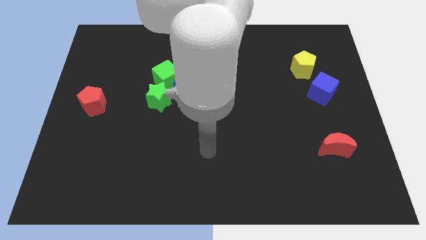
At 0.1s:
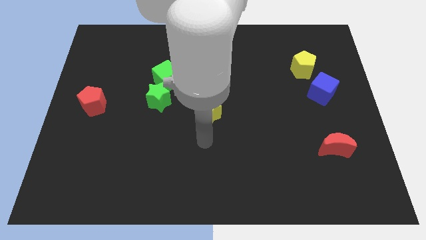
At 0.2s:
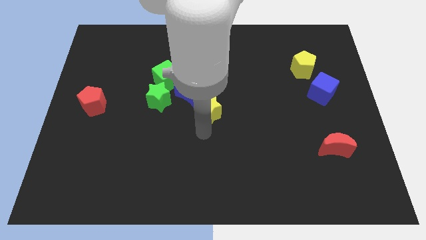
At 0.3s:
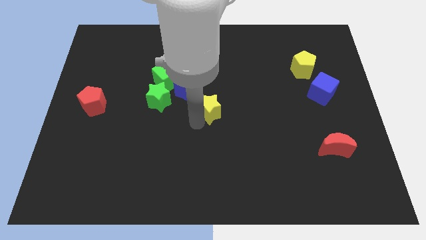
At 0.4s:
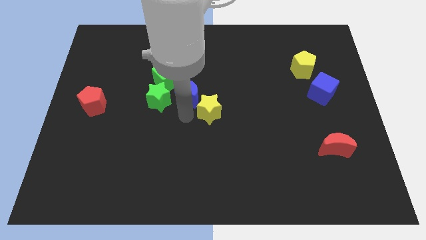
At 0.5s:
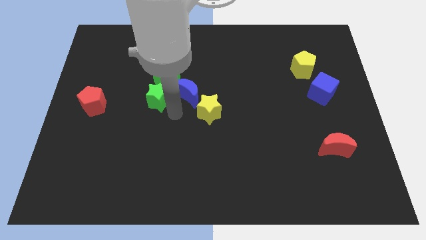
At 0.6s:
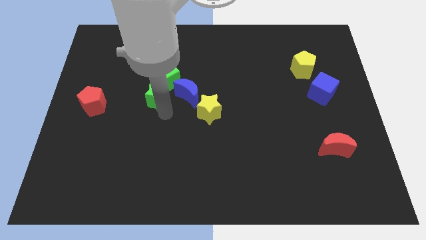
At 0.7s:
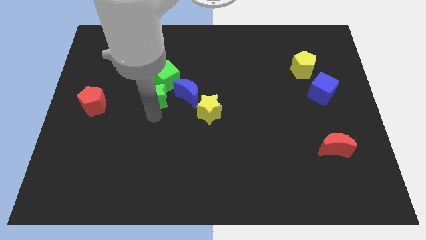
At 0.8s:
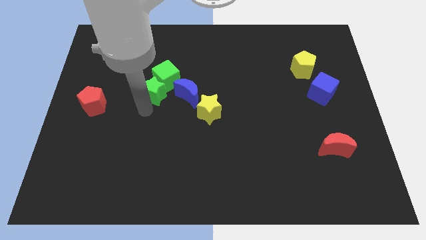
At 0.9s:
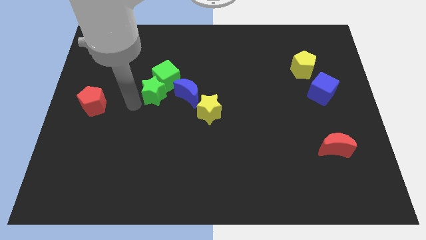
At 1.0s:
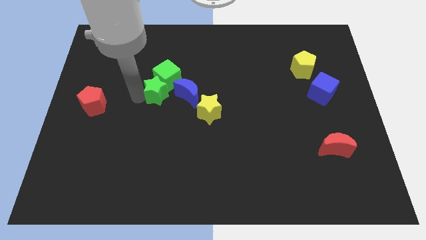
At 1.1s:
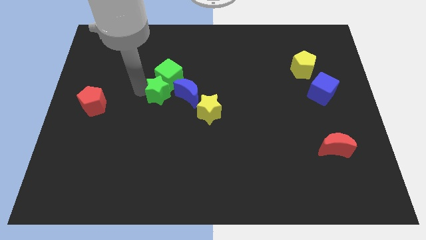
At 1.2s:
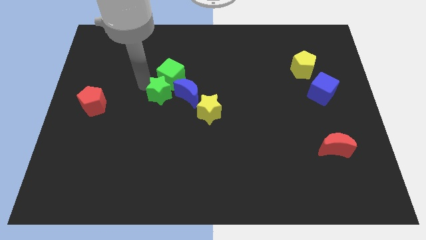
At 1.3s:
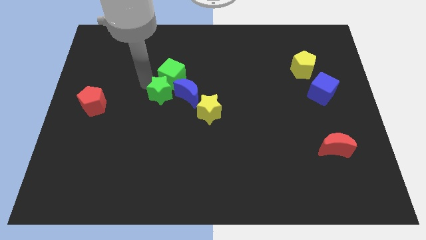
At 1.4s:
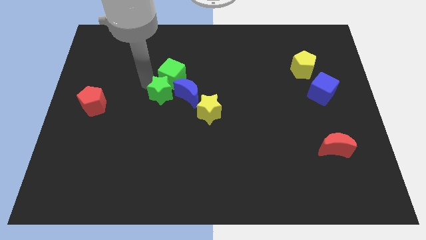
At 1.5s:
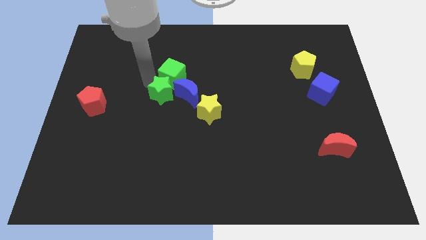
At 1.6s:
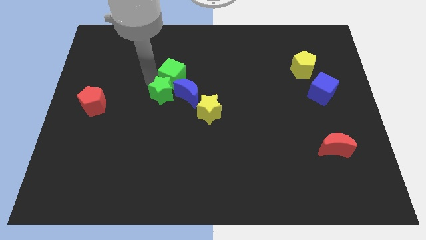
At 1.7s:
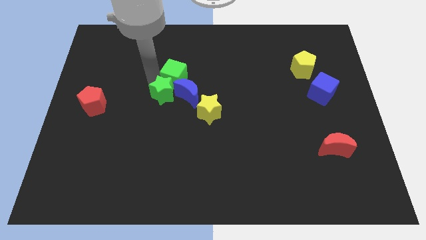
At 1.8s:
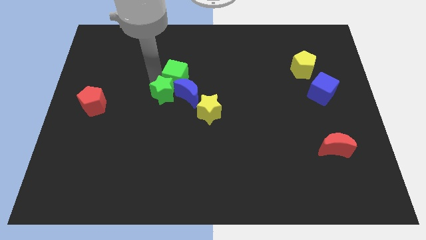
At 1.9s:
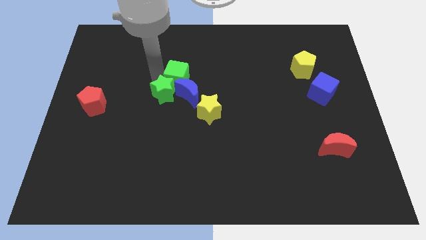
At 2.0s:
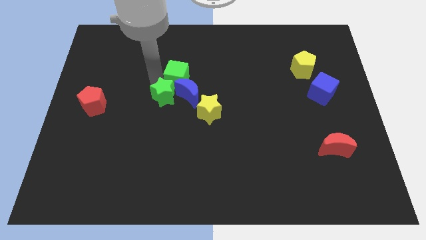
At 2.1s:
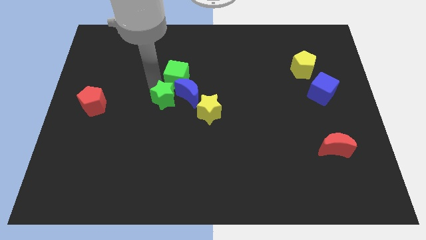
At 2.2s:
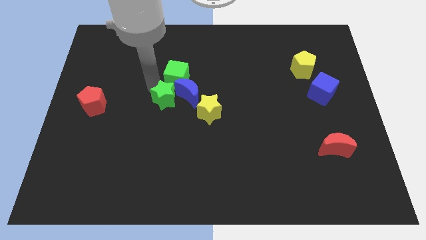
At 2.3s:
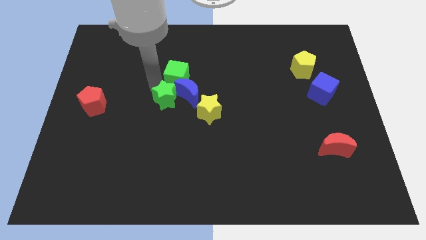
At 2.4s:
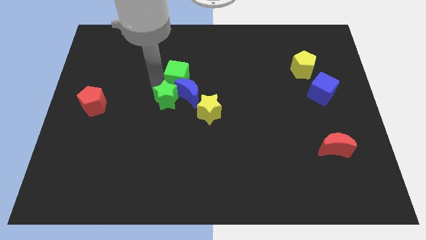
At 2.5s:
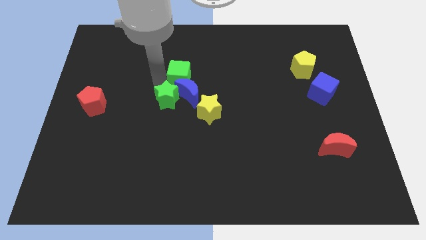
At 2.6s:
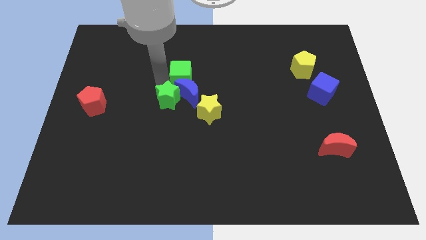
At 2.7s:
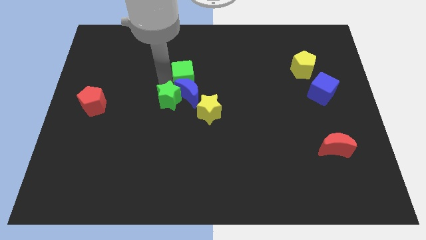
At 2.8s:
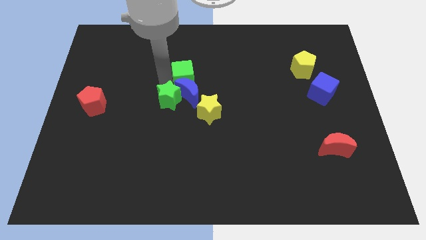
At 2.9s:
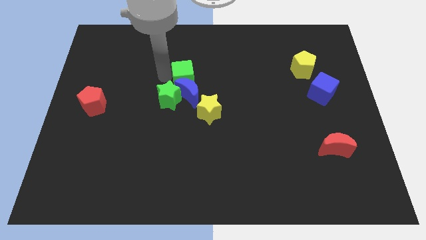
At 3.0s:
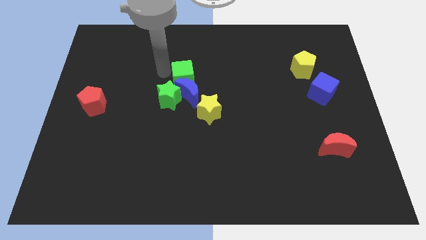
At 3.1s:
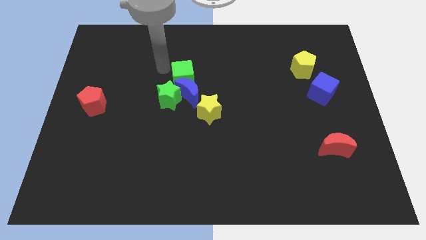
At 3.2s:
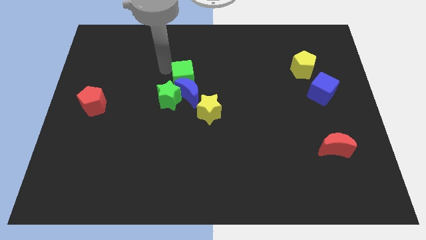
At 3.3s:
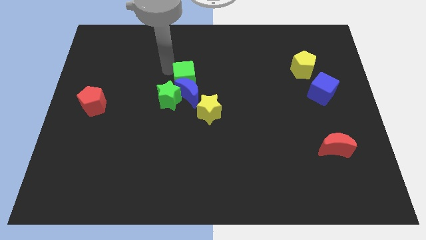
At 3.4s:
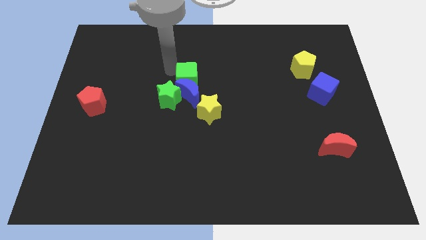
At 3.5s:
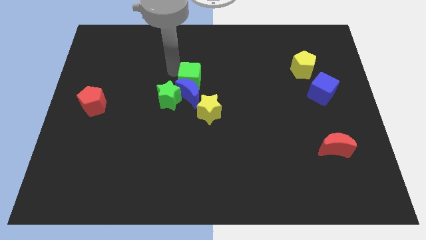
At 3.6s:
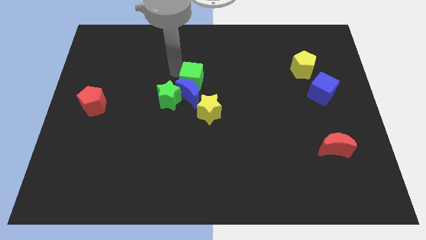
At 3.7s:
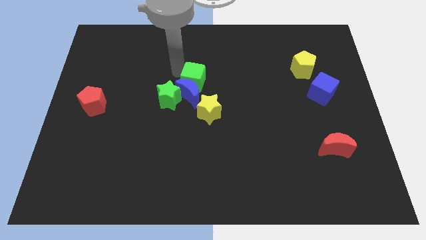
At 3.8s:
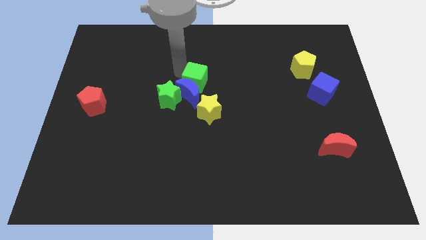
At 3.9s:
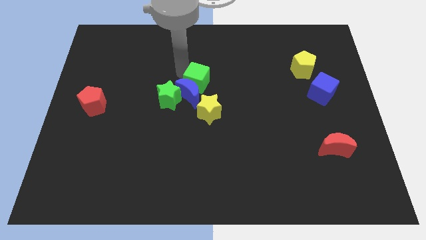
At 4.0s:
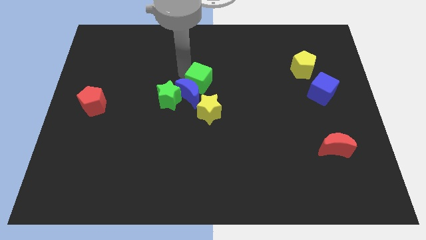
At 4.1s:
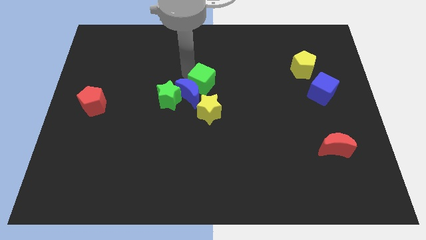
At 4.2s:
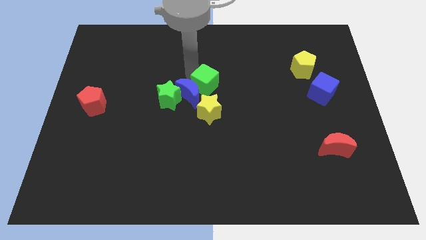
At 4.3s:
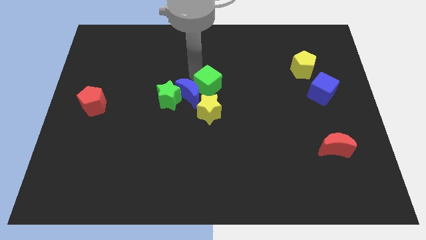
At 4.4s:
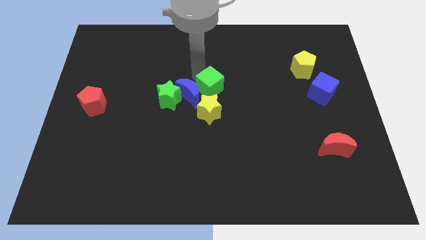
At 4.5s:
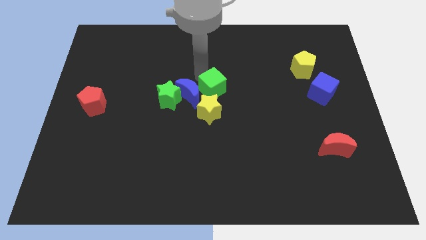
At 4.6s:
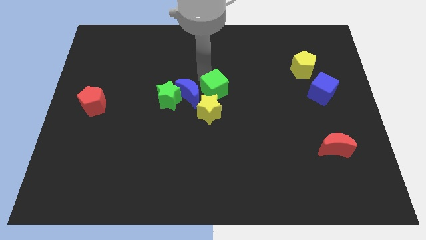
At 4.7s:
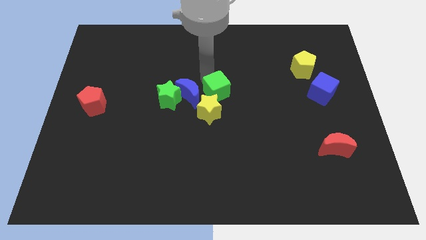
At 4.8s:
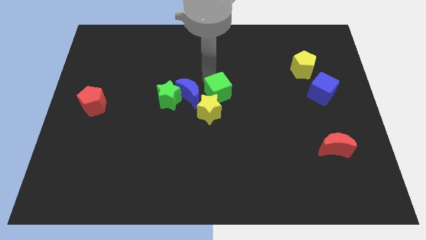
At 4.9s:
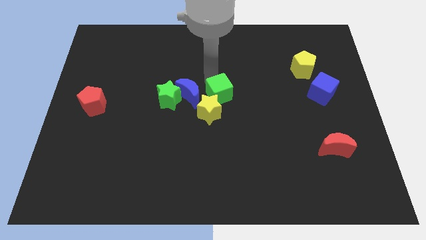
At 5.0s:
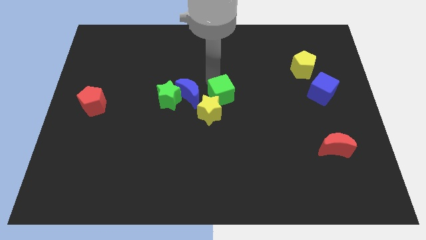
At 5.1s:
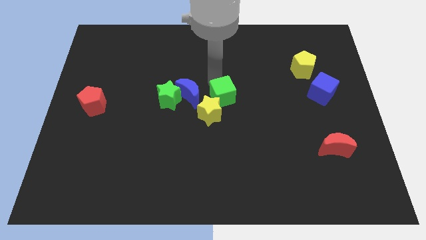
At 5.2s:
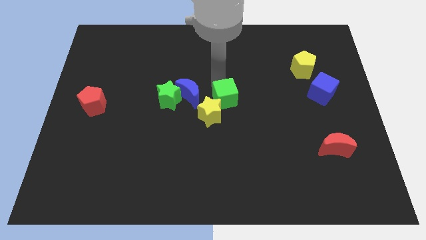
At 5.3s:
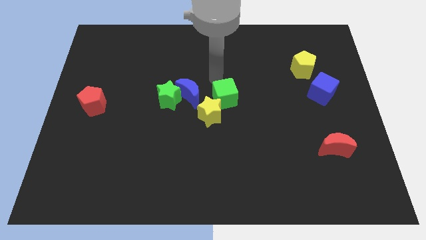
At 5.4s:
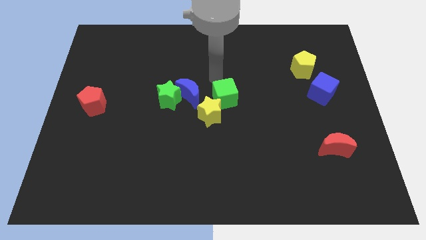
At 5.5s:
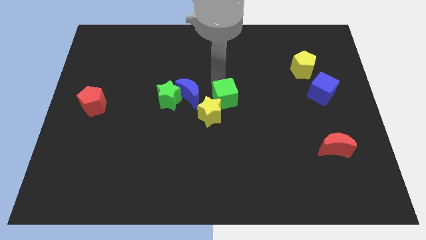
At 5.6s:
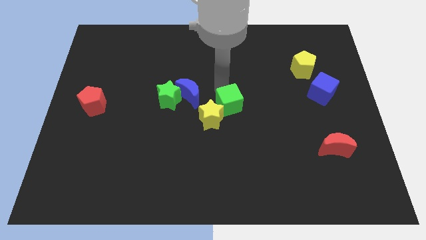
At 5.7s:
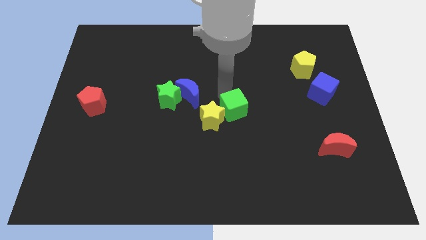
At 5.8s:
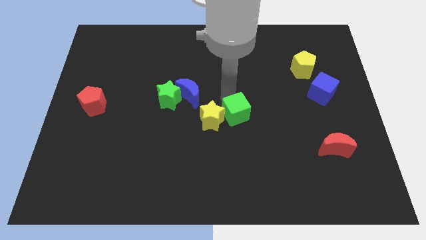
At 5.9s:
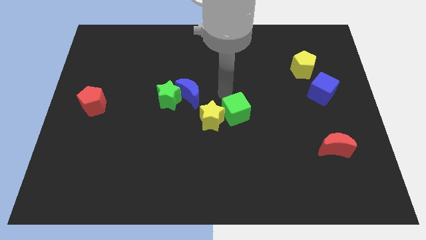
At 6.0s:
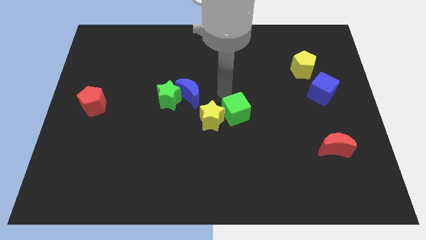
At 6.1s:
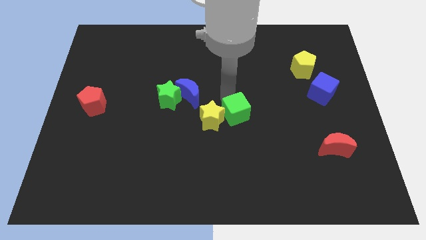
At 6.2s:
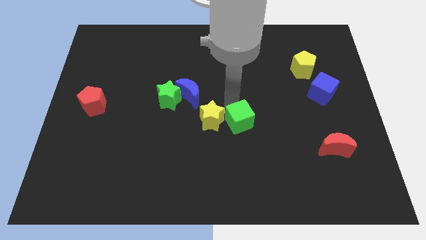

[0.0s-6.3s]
move the green cube diagonally downwards and to the right

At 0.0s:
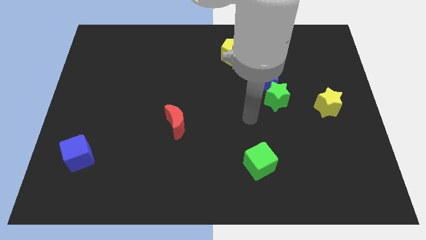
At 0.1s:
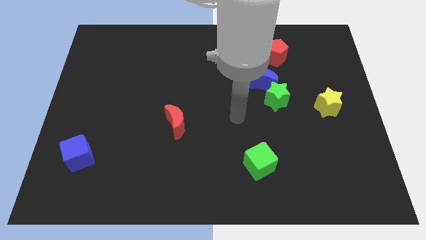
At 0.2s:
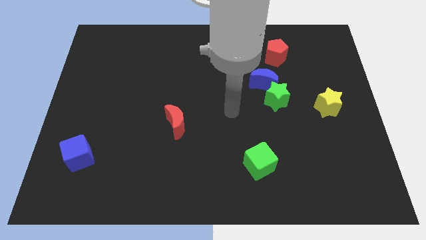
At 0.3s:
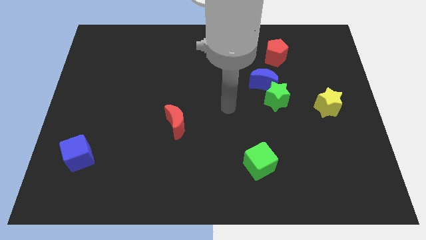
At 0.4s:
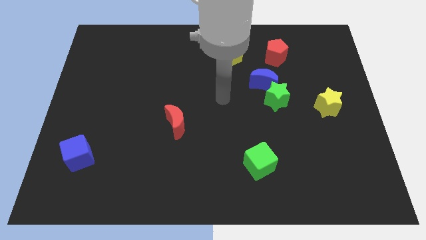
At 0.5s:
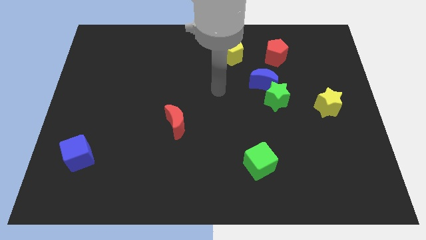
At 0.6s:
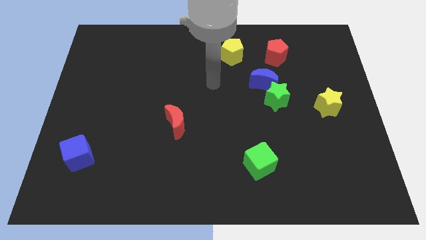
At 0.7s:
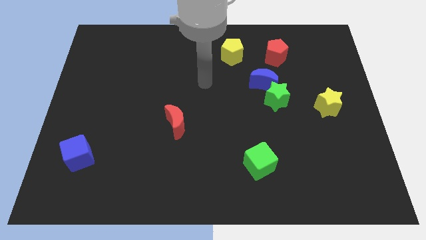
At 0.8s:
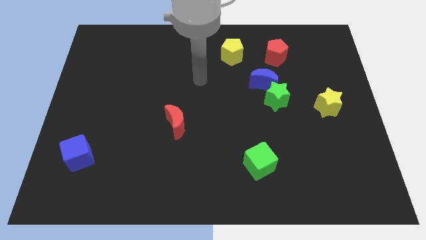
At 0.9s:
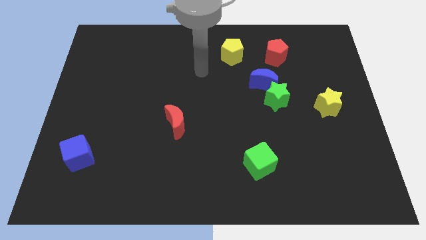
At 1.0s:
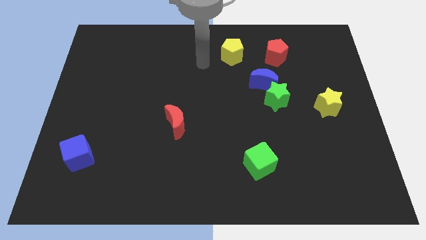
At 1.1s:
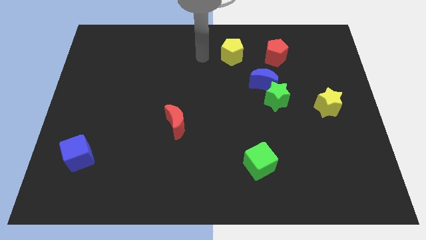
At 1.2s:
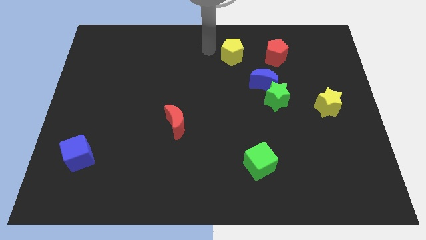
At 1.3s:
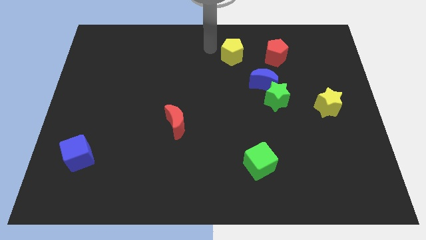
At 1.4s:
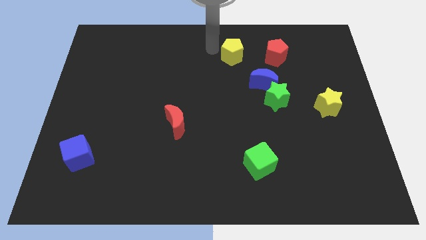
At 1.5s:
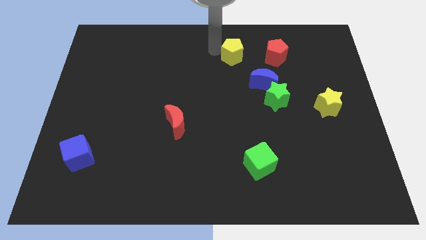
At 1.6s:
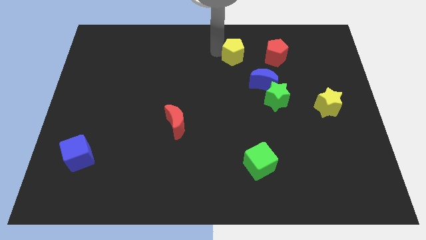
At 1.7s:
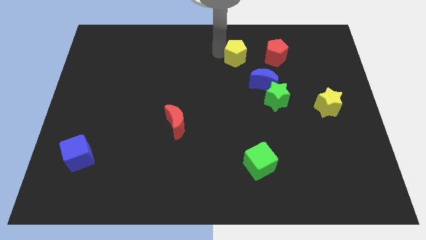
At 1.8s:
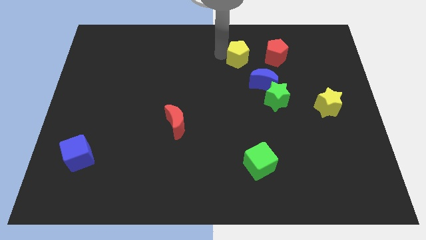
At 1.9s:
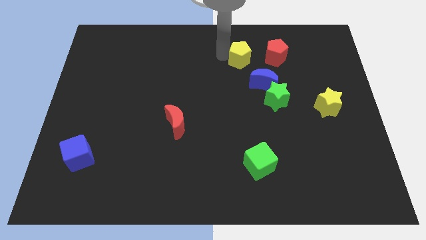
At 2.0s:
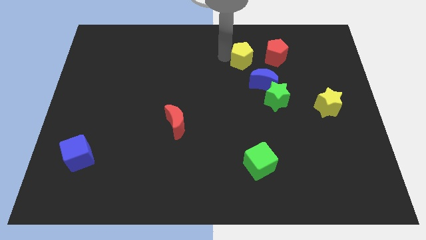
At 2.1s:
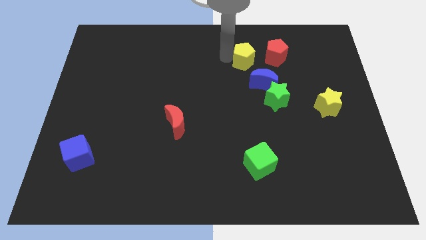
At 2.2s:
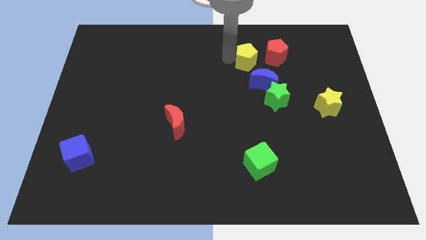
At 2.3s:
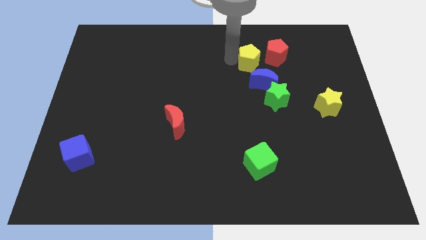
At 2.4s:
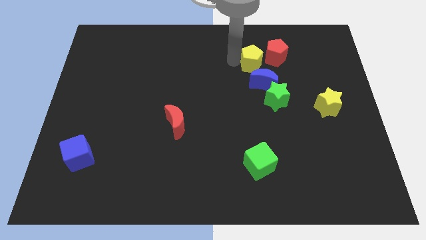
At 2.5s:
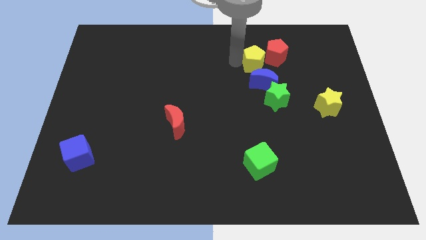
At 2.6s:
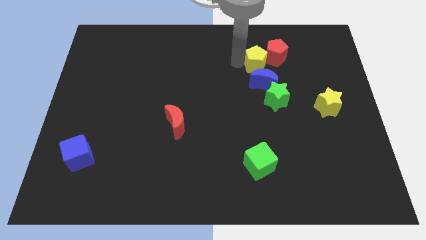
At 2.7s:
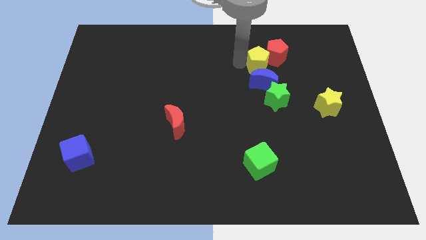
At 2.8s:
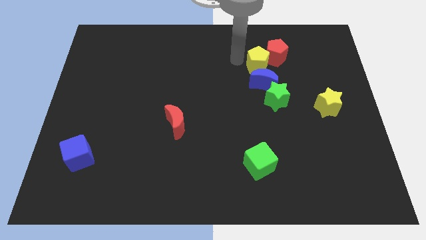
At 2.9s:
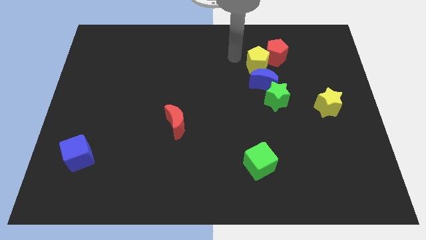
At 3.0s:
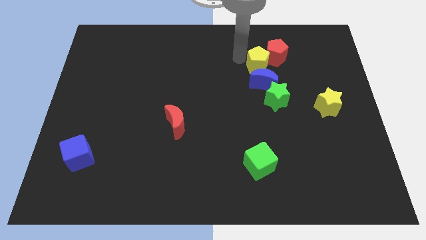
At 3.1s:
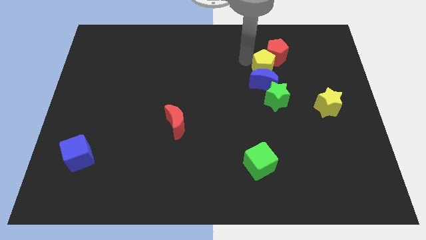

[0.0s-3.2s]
slightly slide the yellow pentagon to the right
